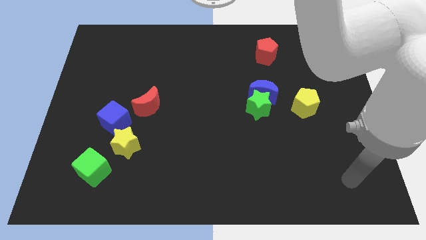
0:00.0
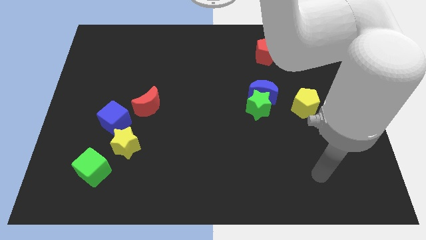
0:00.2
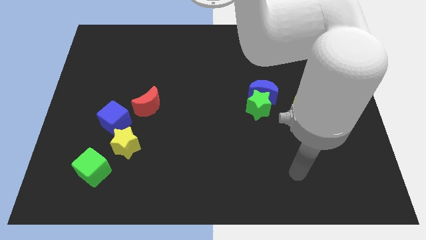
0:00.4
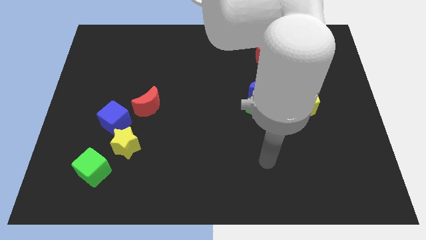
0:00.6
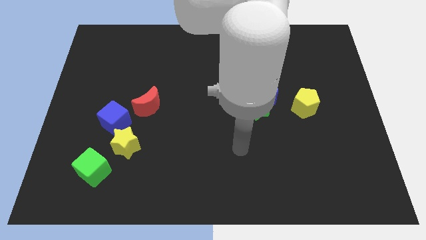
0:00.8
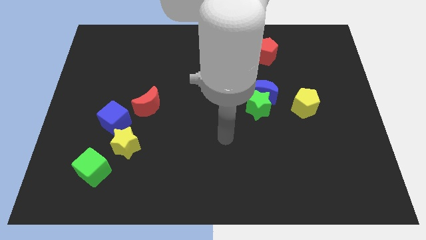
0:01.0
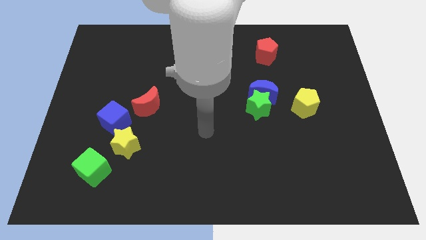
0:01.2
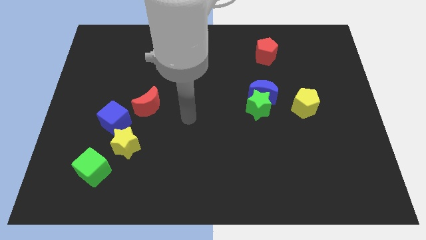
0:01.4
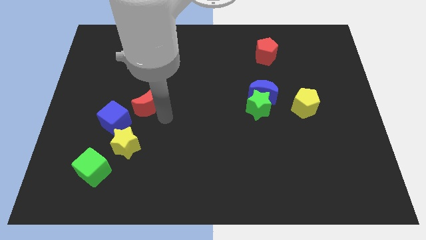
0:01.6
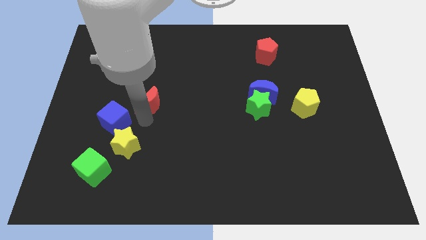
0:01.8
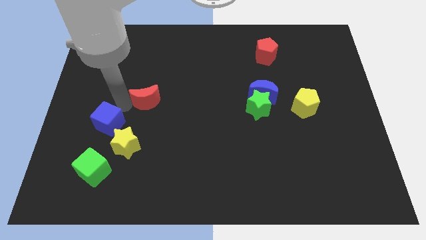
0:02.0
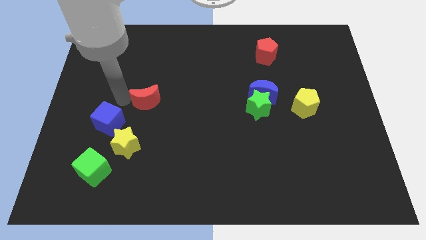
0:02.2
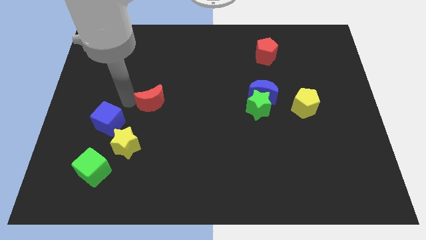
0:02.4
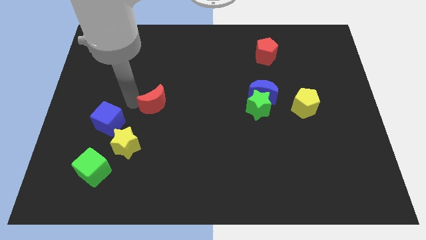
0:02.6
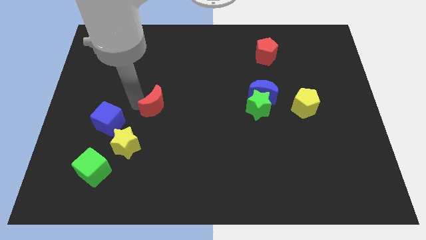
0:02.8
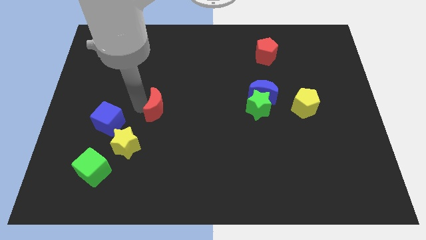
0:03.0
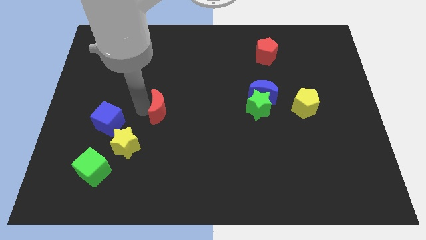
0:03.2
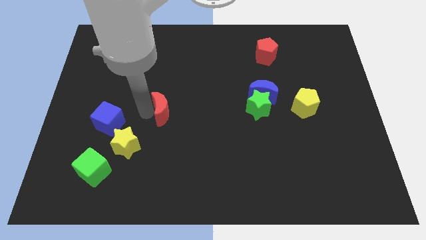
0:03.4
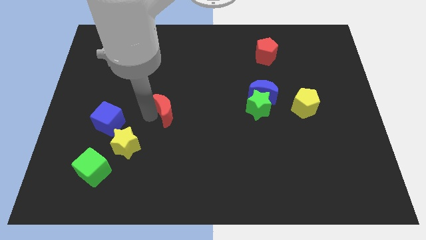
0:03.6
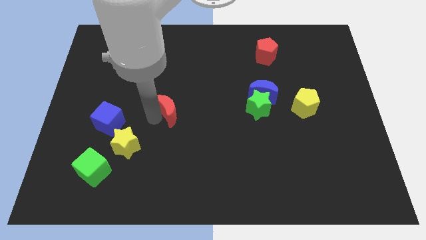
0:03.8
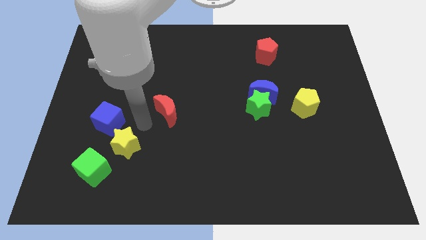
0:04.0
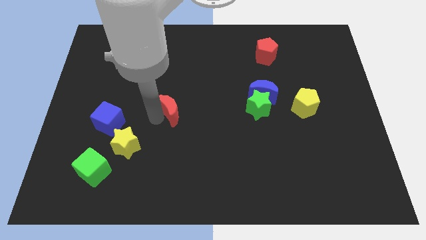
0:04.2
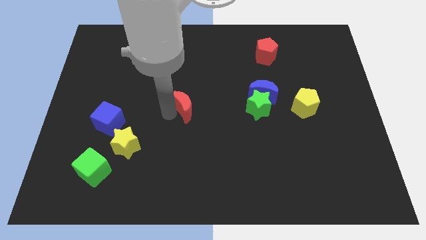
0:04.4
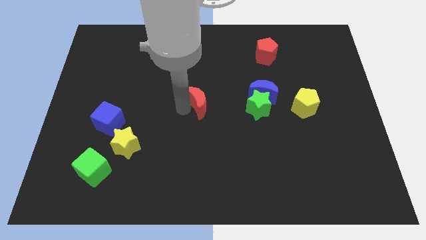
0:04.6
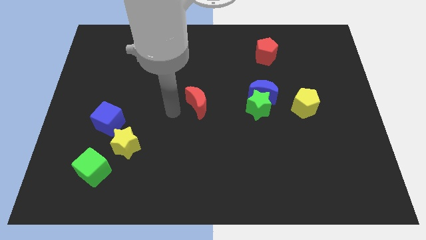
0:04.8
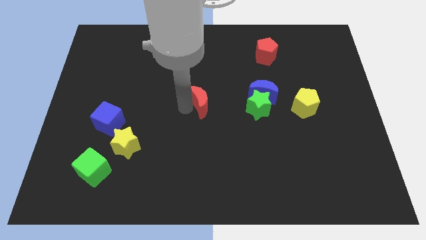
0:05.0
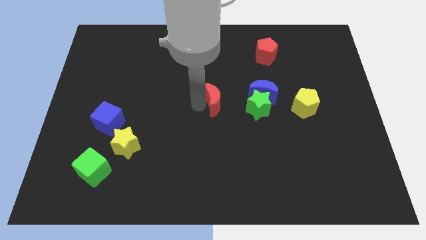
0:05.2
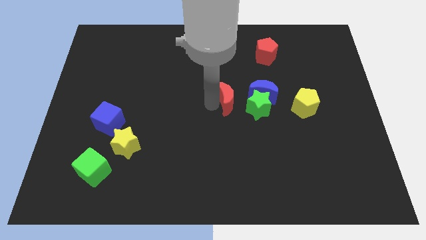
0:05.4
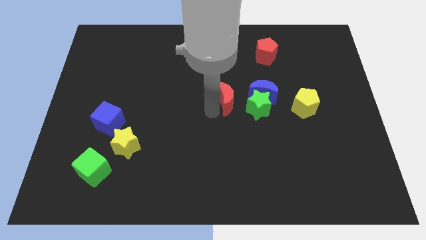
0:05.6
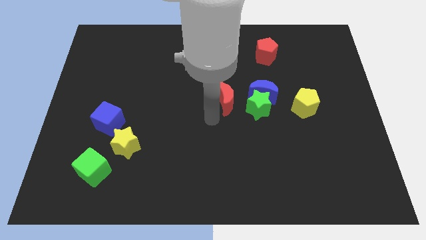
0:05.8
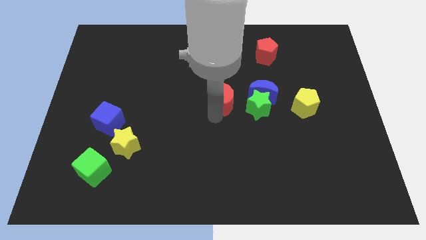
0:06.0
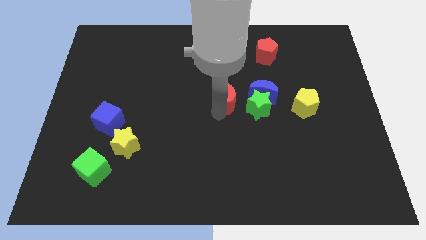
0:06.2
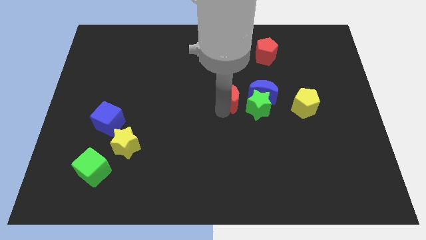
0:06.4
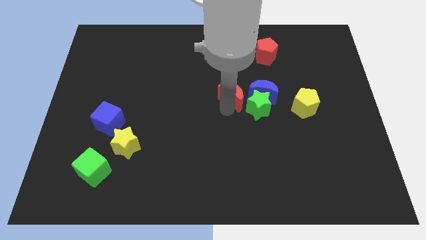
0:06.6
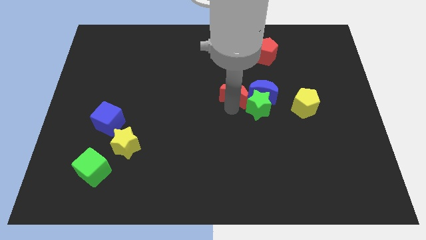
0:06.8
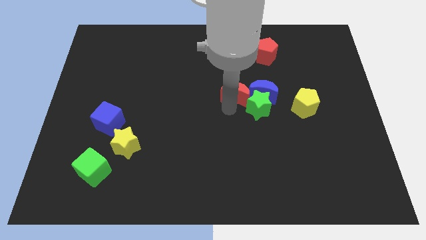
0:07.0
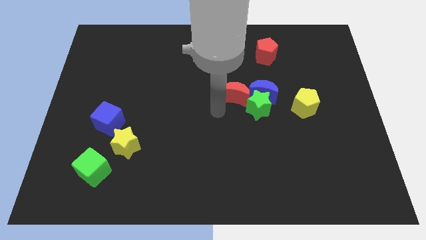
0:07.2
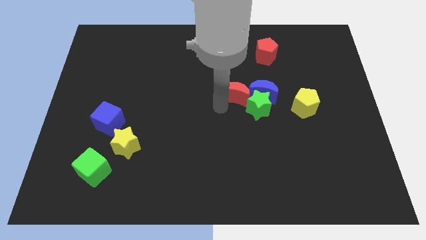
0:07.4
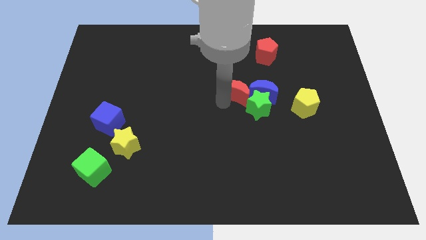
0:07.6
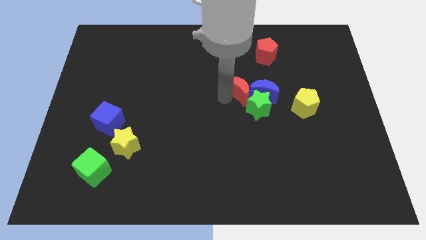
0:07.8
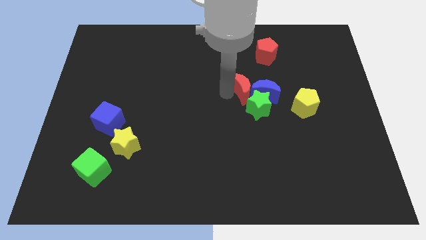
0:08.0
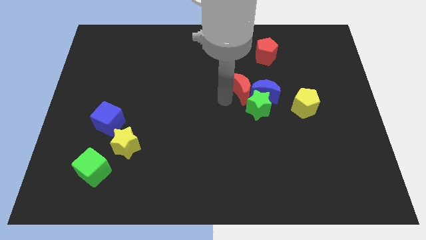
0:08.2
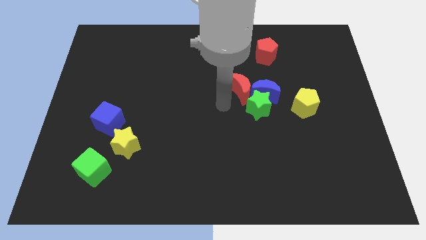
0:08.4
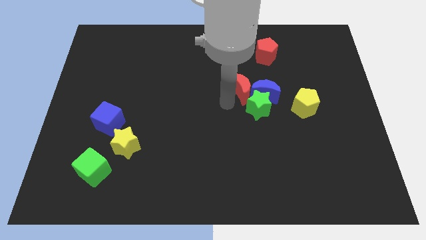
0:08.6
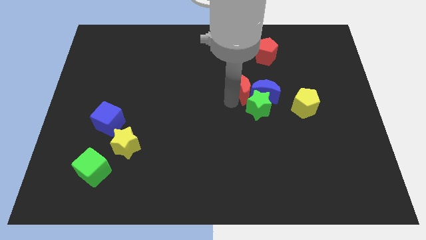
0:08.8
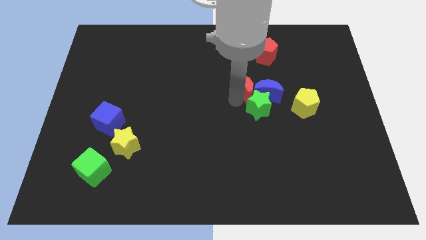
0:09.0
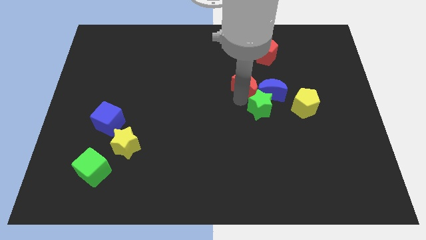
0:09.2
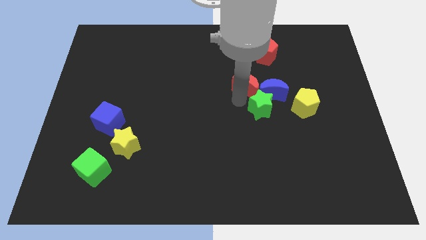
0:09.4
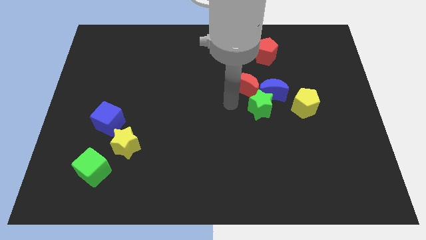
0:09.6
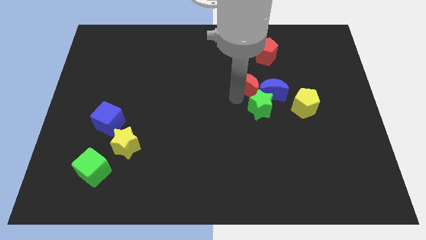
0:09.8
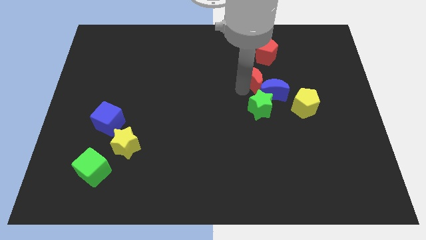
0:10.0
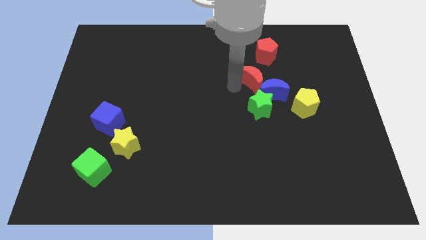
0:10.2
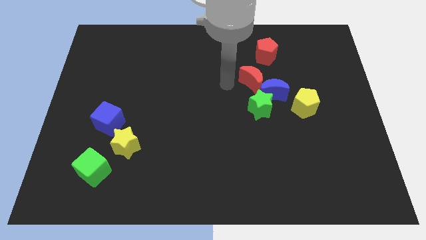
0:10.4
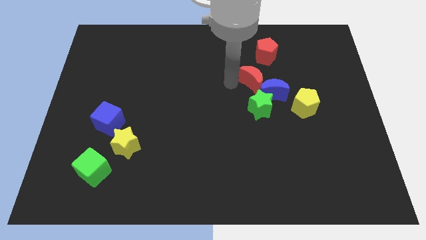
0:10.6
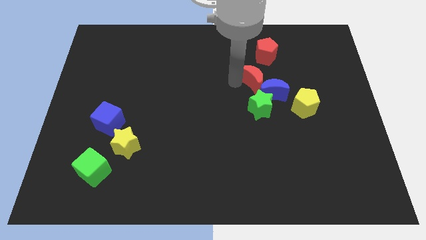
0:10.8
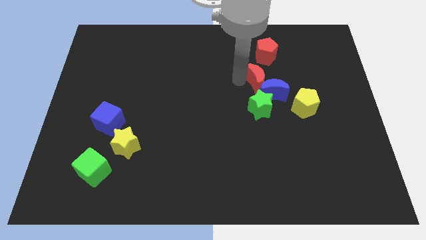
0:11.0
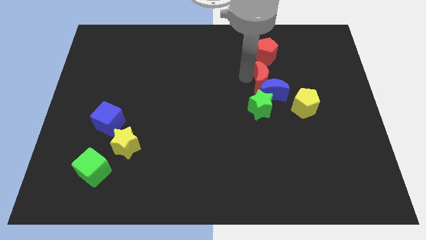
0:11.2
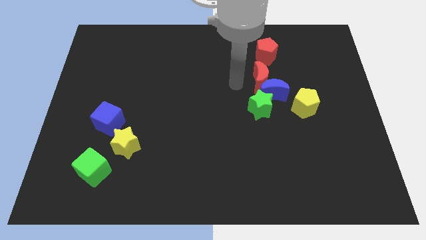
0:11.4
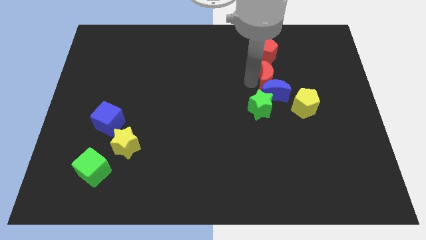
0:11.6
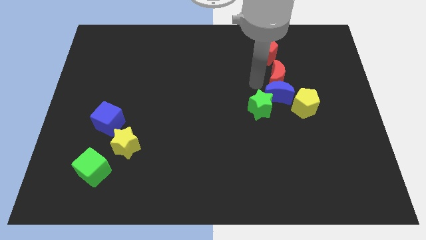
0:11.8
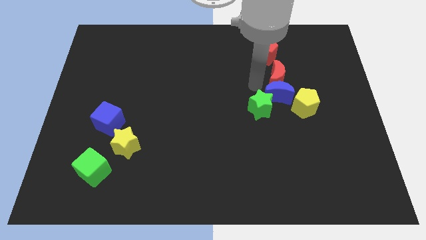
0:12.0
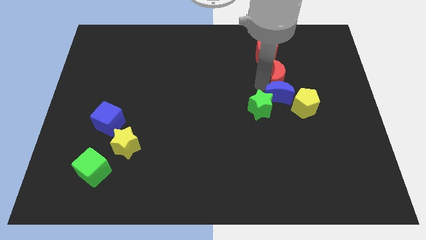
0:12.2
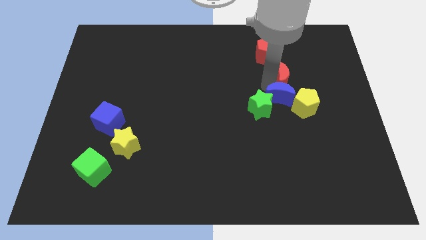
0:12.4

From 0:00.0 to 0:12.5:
move the red moon above the yellow pentagon

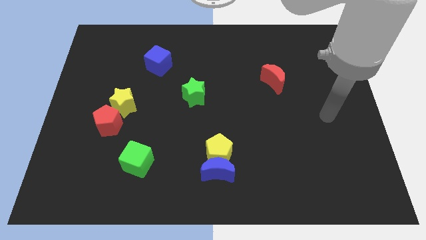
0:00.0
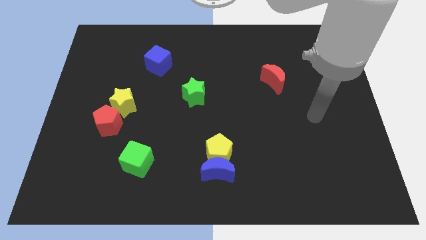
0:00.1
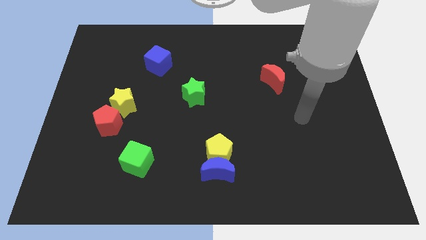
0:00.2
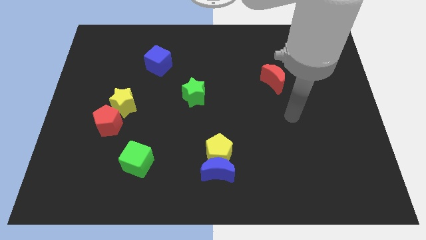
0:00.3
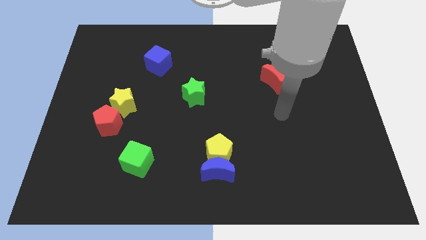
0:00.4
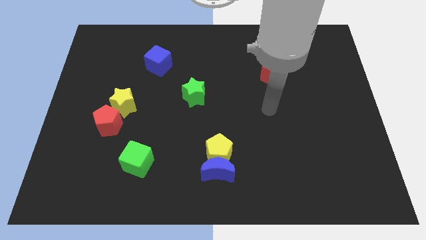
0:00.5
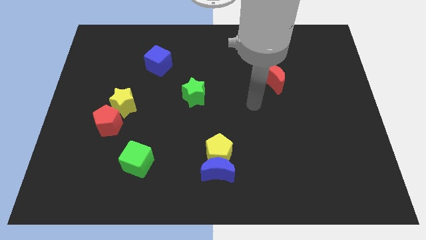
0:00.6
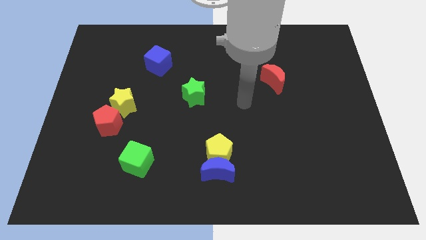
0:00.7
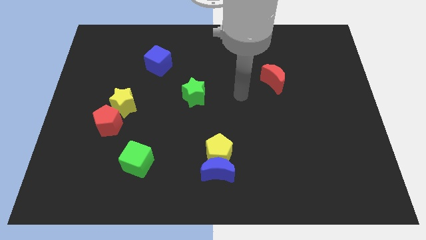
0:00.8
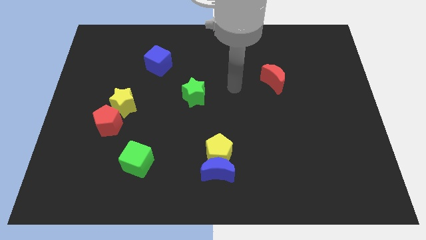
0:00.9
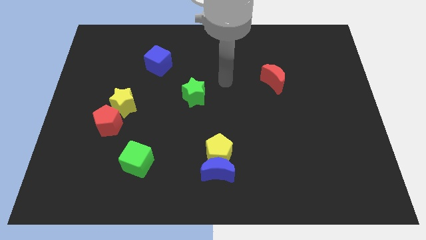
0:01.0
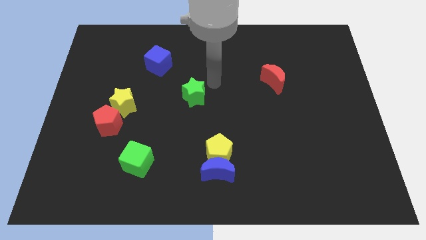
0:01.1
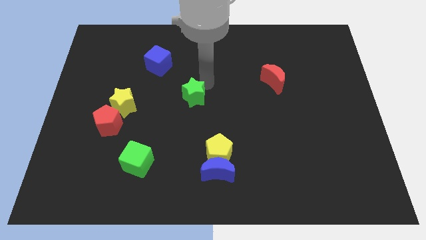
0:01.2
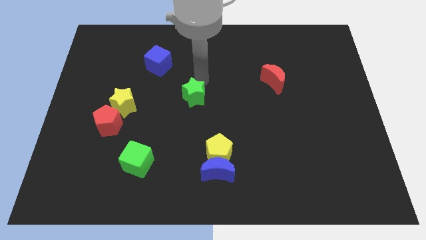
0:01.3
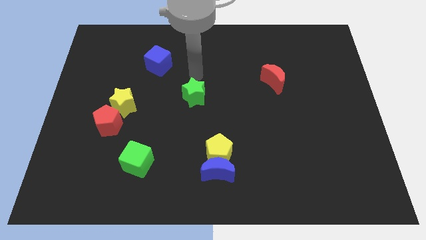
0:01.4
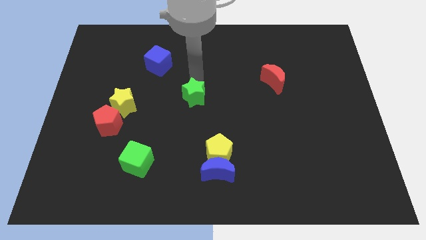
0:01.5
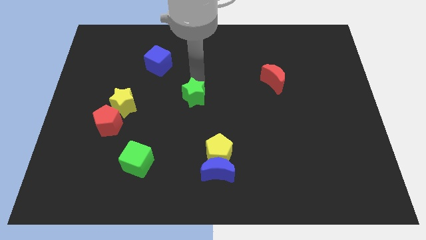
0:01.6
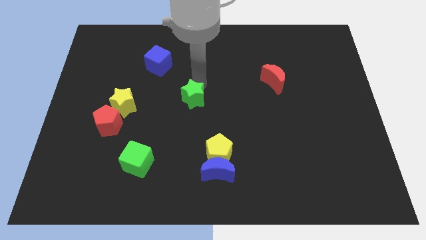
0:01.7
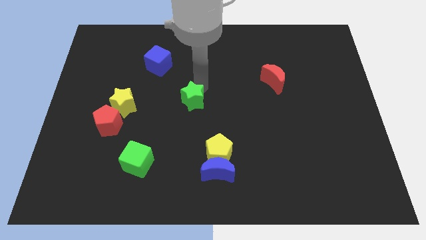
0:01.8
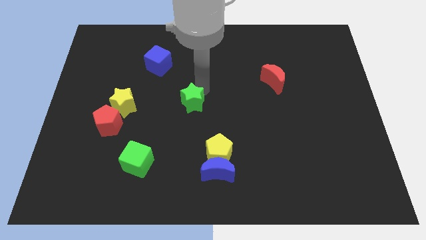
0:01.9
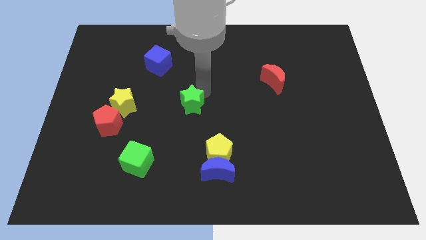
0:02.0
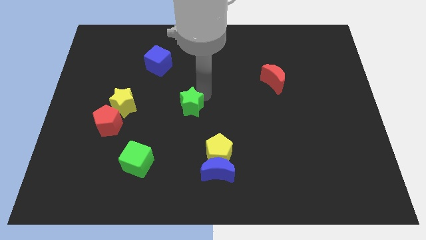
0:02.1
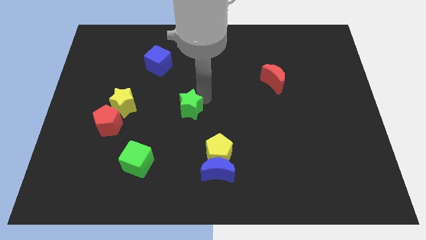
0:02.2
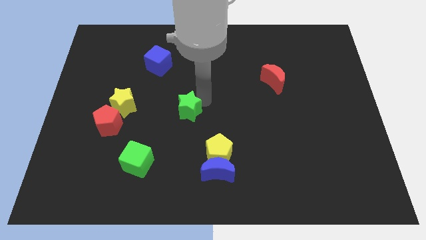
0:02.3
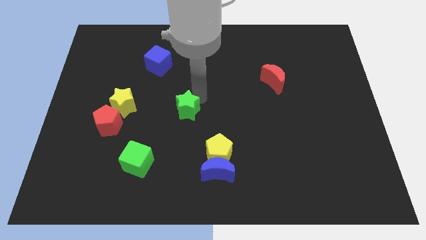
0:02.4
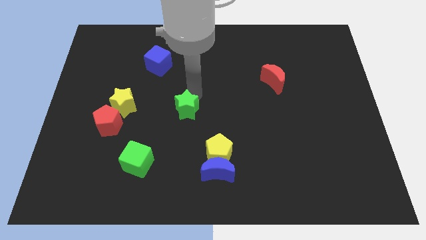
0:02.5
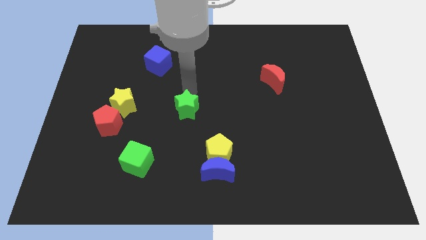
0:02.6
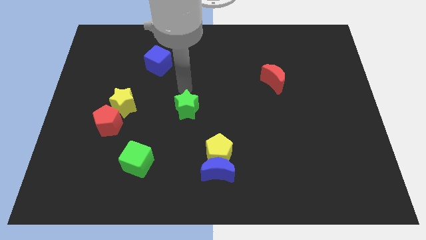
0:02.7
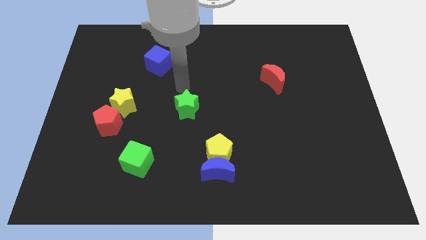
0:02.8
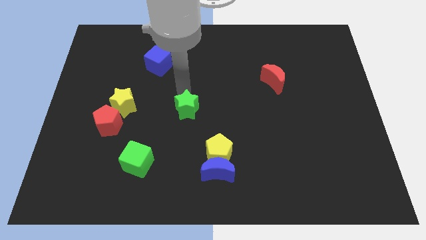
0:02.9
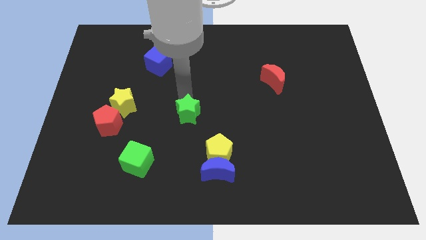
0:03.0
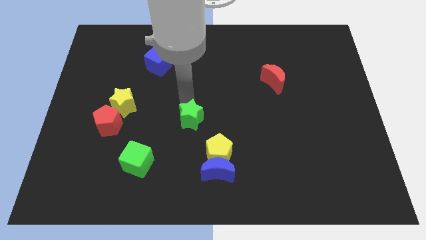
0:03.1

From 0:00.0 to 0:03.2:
push the green star diagonally up and to the left of the yellow pentagon
